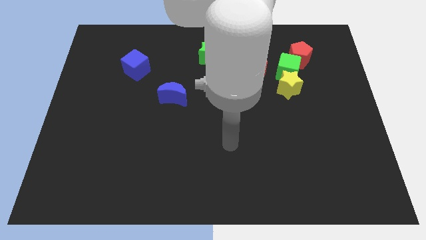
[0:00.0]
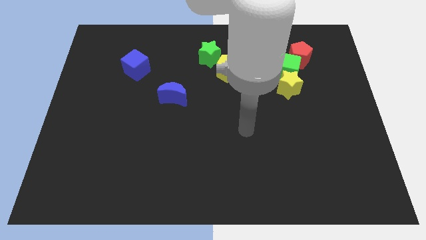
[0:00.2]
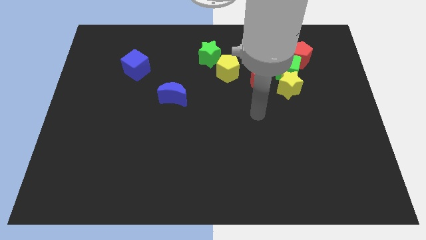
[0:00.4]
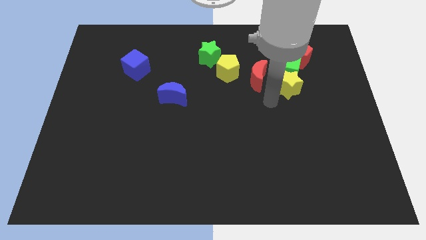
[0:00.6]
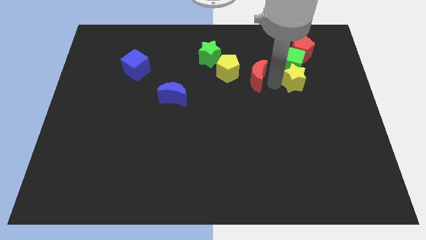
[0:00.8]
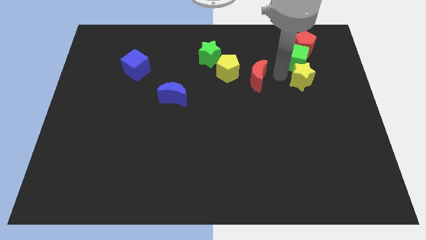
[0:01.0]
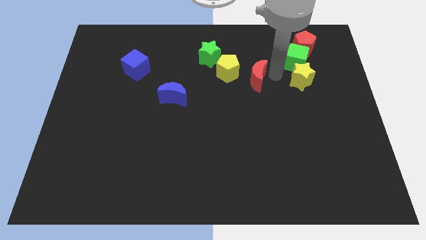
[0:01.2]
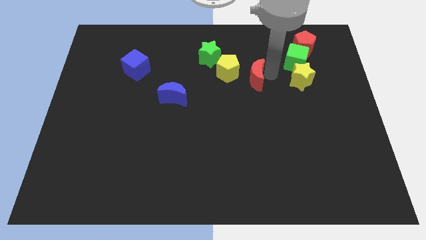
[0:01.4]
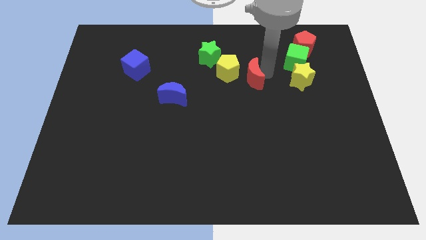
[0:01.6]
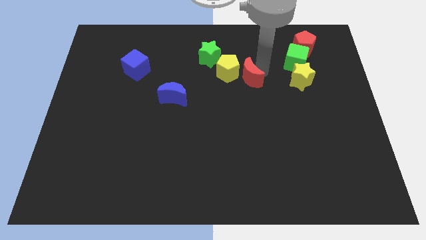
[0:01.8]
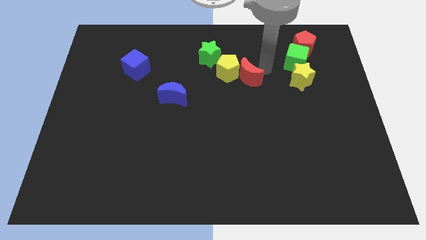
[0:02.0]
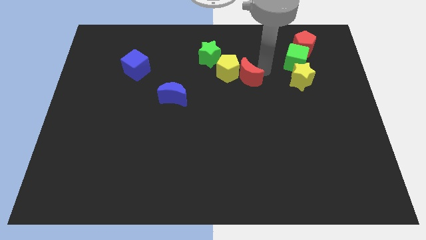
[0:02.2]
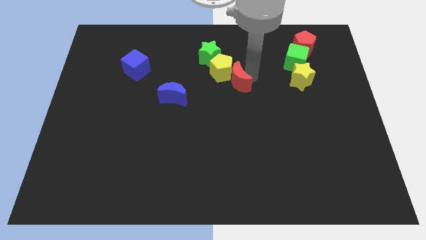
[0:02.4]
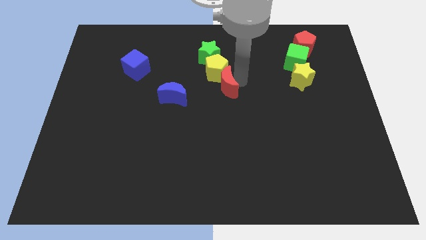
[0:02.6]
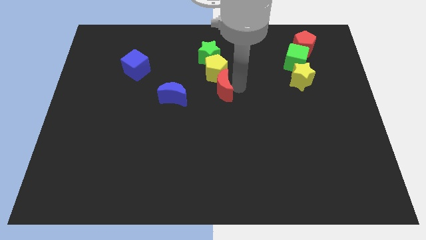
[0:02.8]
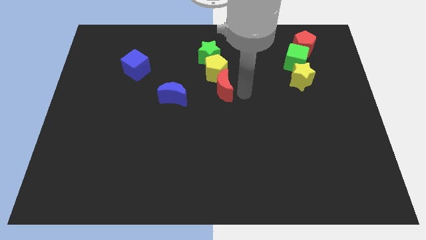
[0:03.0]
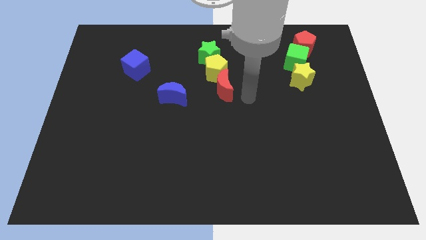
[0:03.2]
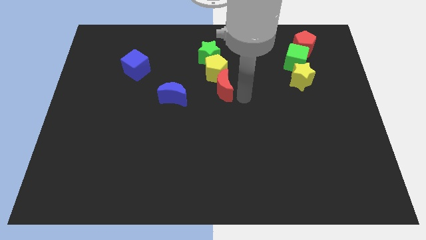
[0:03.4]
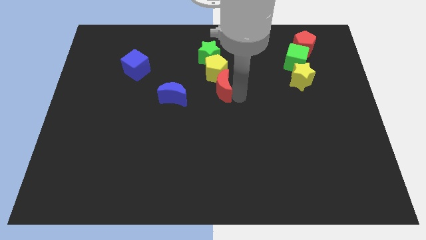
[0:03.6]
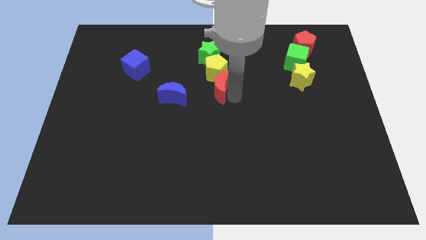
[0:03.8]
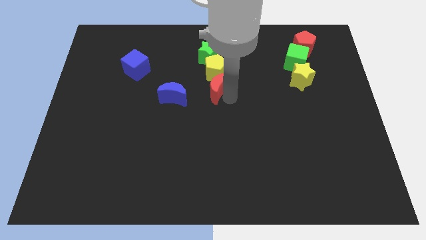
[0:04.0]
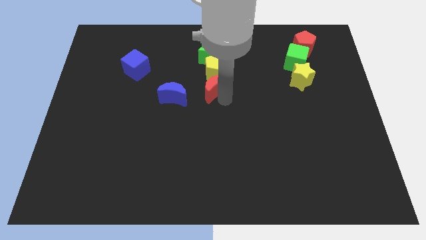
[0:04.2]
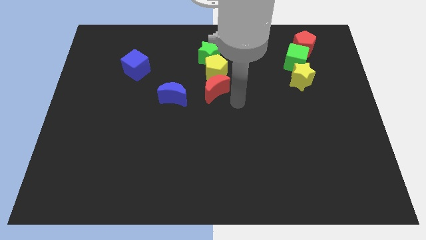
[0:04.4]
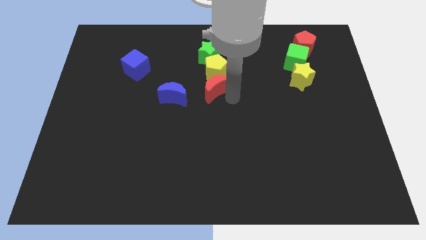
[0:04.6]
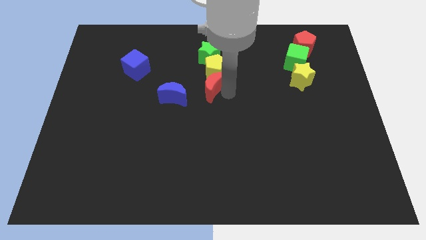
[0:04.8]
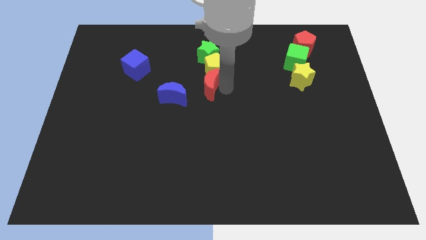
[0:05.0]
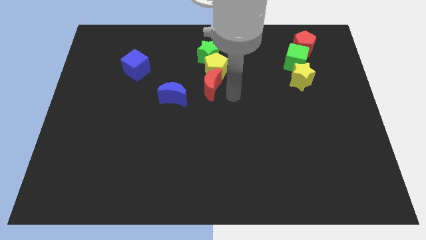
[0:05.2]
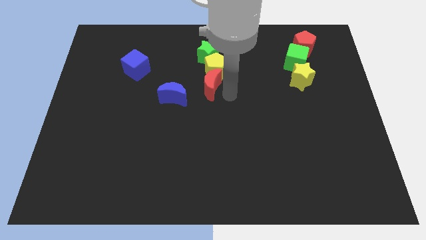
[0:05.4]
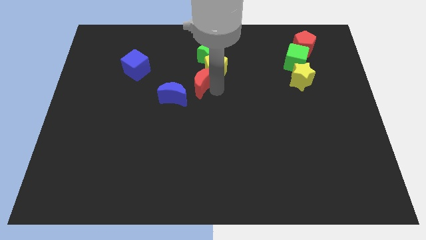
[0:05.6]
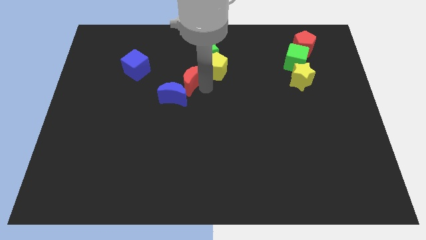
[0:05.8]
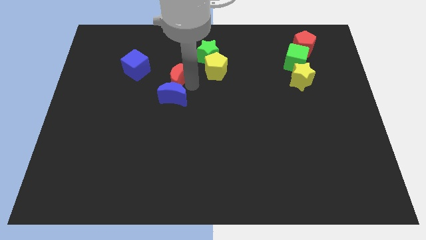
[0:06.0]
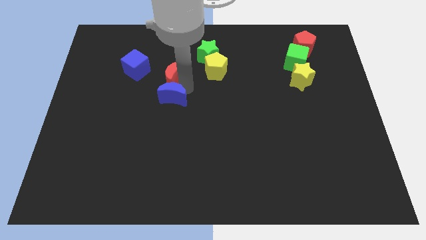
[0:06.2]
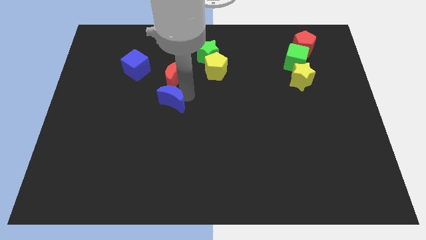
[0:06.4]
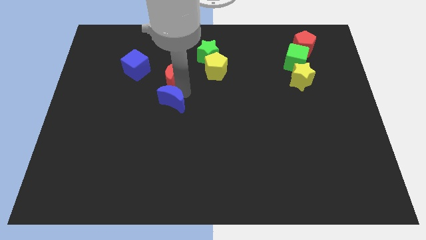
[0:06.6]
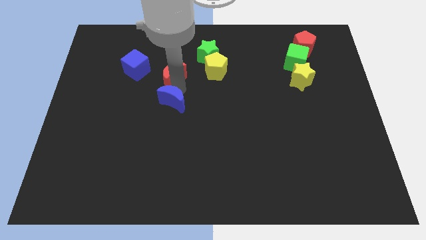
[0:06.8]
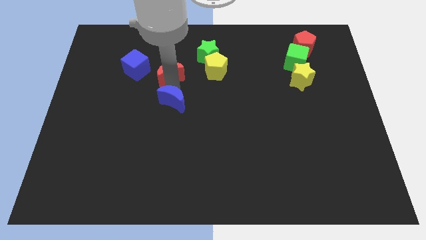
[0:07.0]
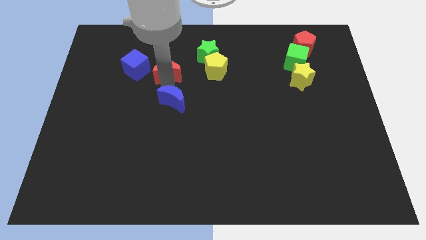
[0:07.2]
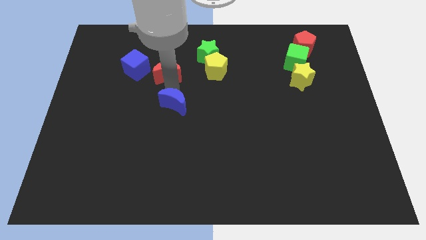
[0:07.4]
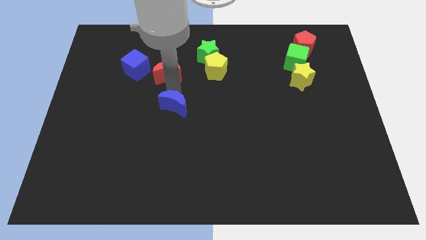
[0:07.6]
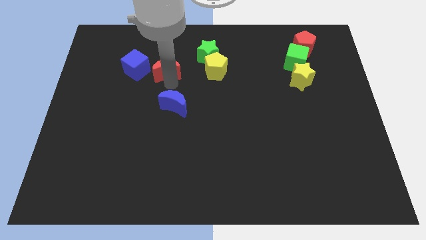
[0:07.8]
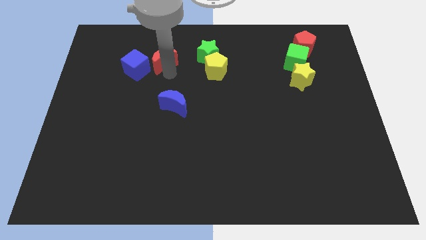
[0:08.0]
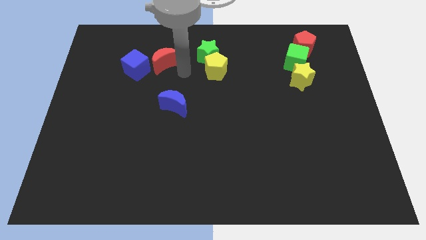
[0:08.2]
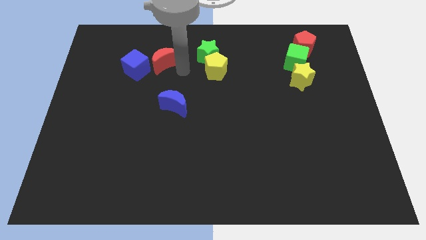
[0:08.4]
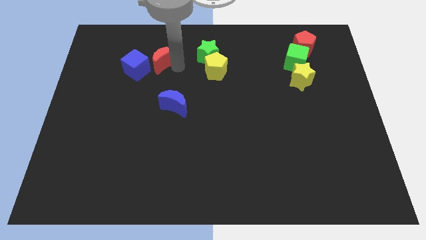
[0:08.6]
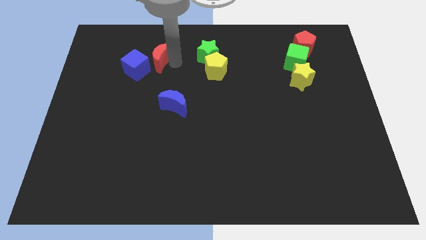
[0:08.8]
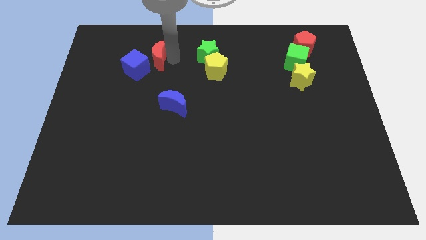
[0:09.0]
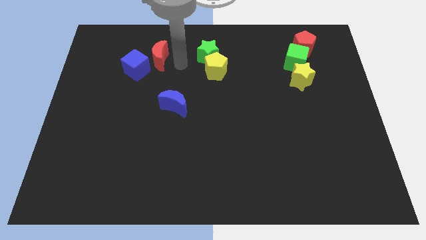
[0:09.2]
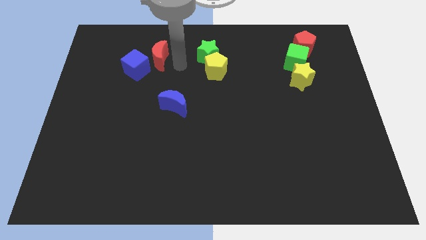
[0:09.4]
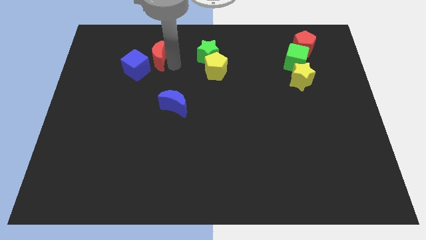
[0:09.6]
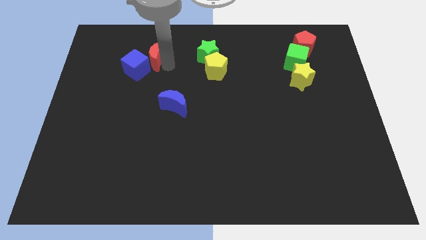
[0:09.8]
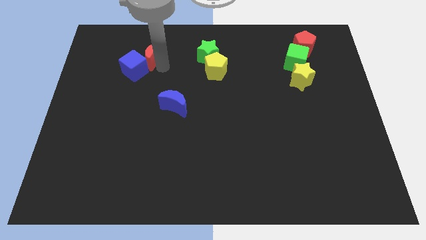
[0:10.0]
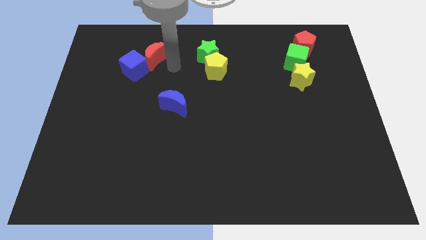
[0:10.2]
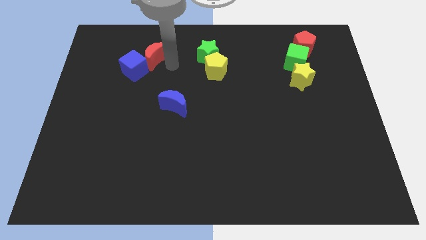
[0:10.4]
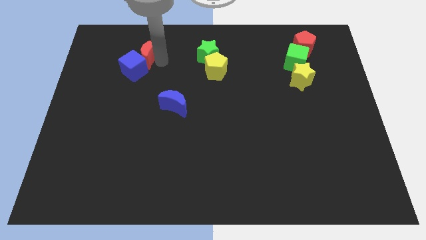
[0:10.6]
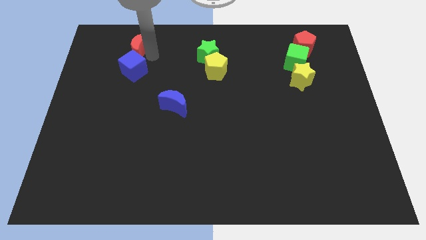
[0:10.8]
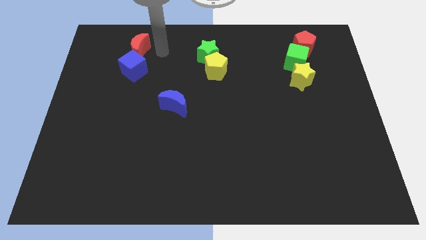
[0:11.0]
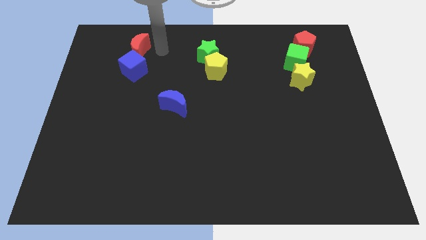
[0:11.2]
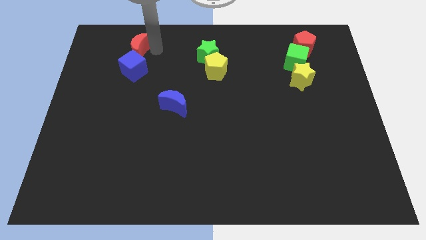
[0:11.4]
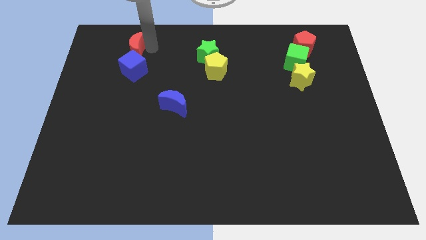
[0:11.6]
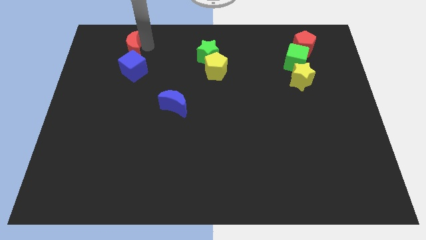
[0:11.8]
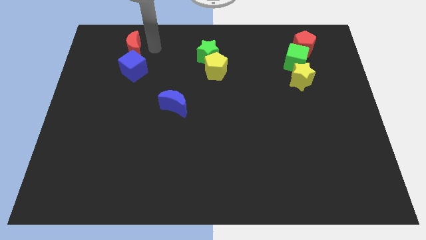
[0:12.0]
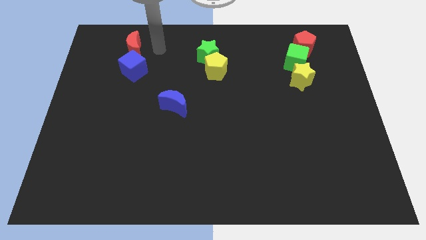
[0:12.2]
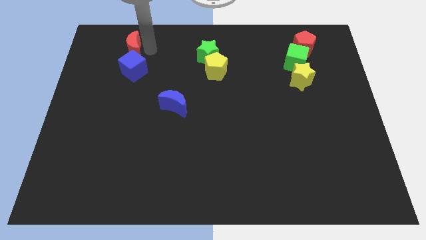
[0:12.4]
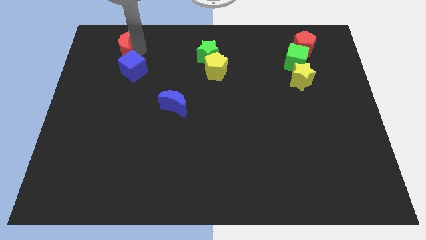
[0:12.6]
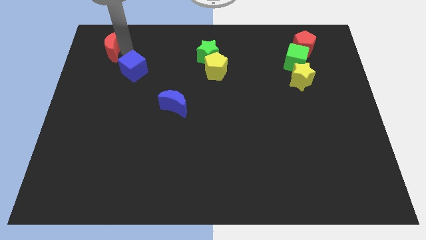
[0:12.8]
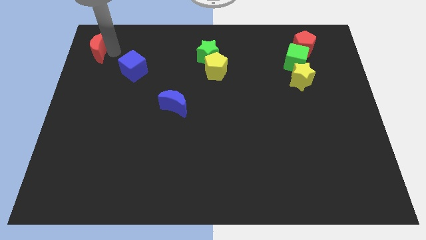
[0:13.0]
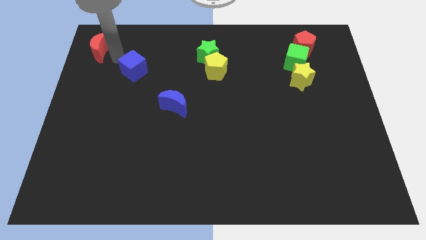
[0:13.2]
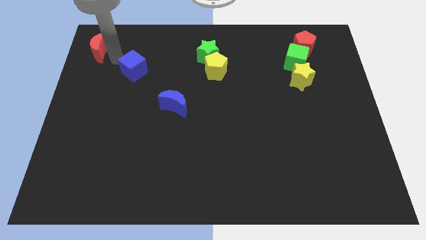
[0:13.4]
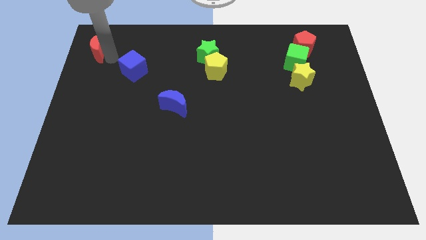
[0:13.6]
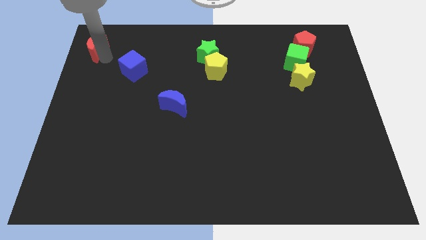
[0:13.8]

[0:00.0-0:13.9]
move the red moon to the top left corner

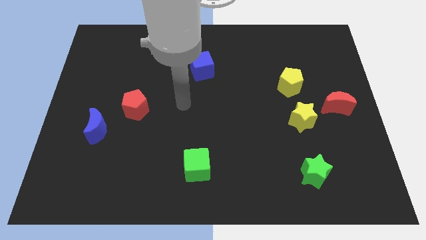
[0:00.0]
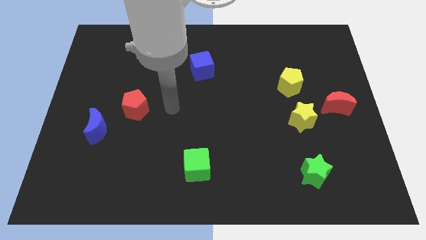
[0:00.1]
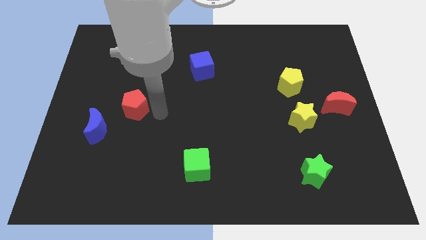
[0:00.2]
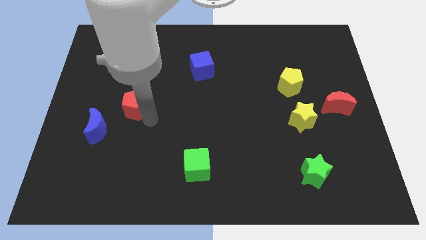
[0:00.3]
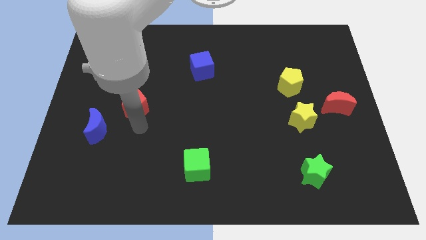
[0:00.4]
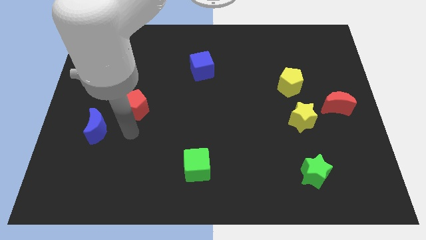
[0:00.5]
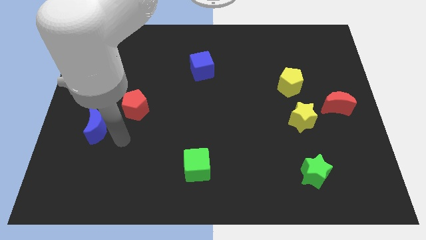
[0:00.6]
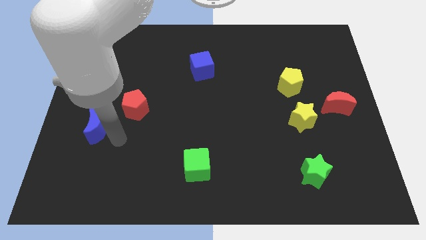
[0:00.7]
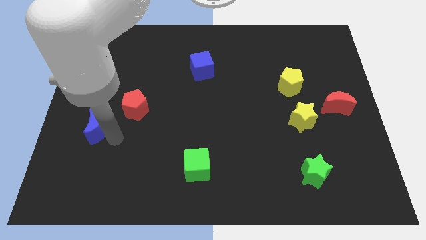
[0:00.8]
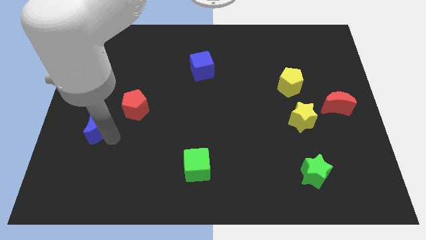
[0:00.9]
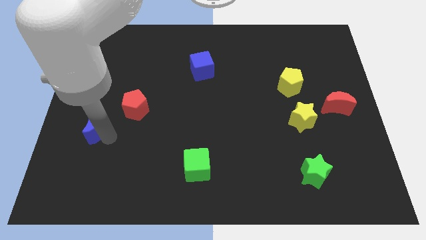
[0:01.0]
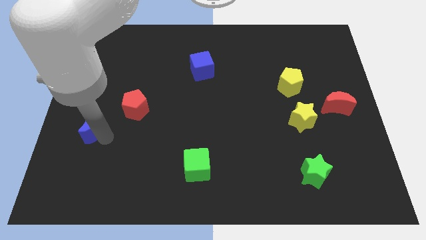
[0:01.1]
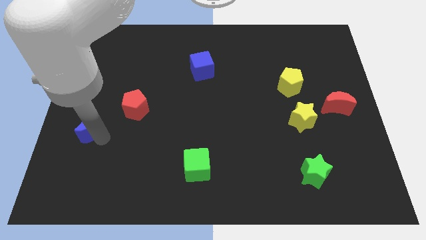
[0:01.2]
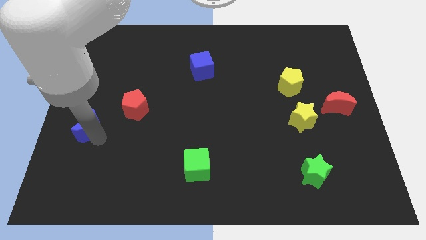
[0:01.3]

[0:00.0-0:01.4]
put the blue moon to the left side of the board
